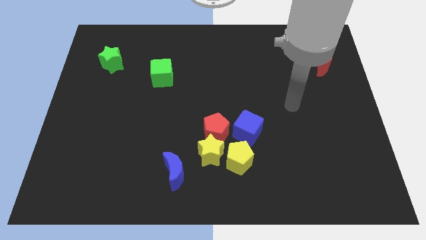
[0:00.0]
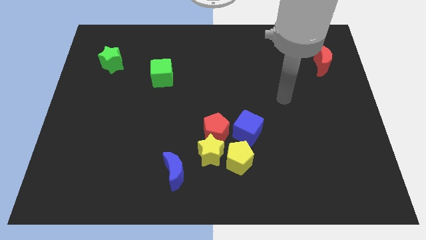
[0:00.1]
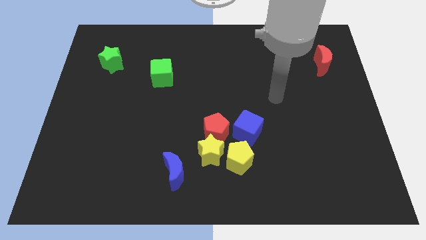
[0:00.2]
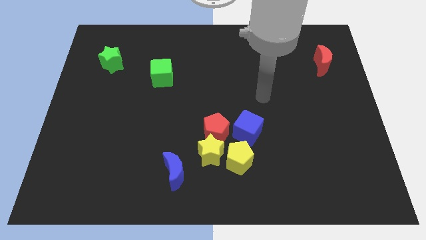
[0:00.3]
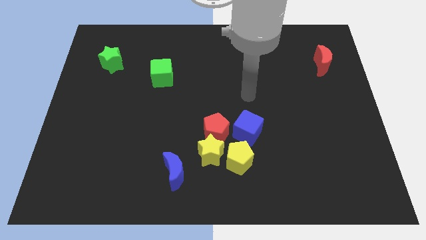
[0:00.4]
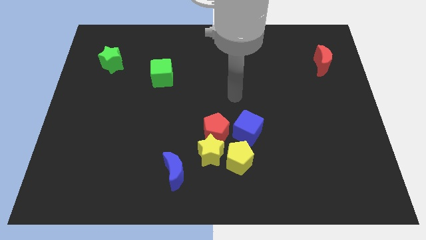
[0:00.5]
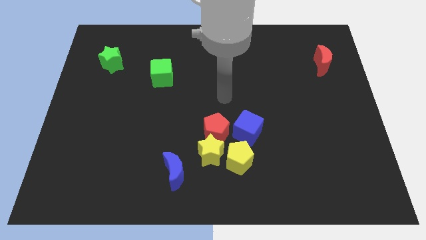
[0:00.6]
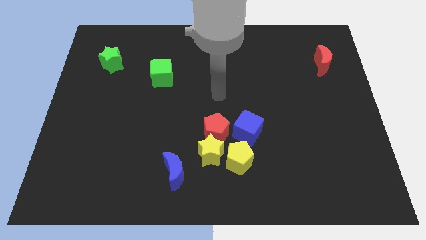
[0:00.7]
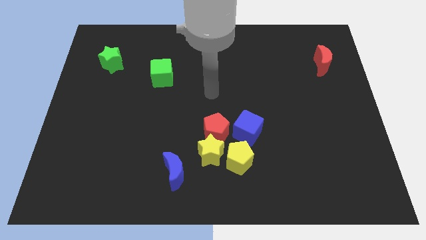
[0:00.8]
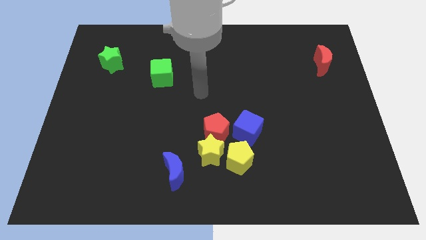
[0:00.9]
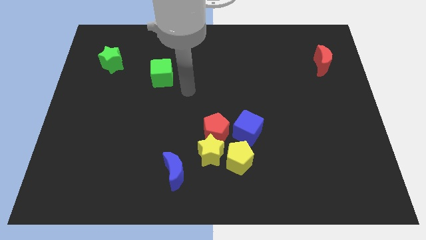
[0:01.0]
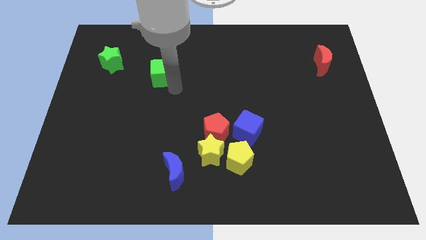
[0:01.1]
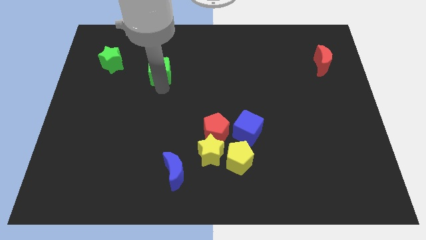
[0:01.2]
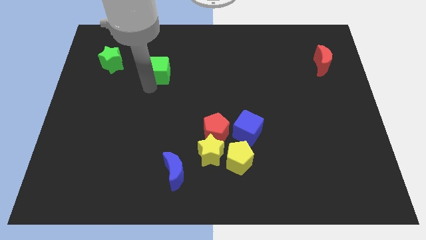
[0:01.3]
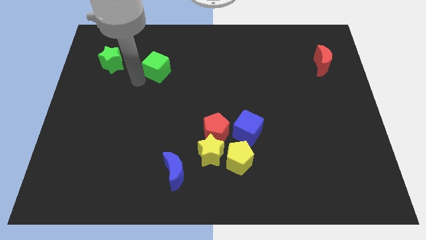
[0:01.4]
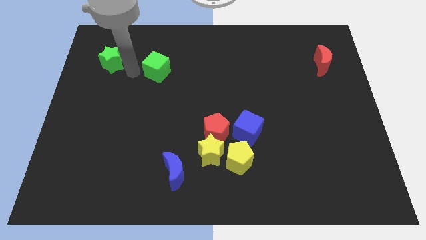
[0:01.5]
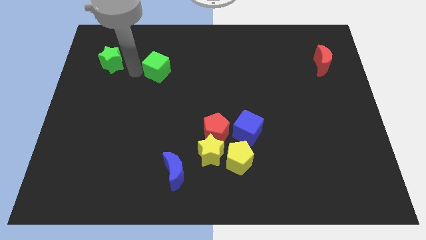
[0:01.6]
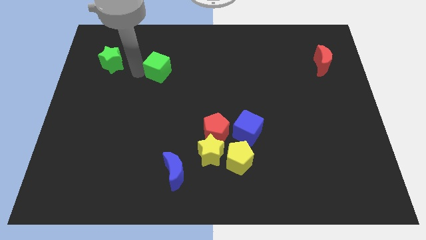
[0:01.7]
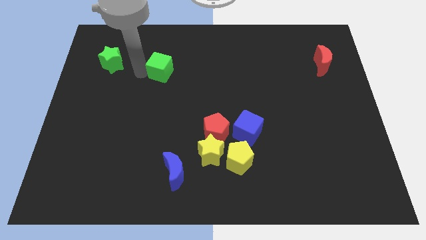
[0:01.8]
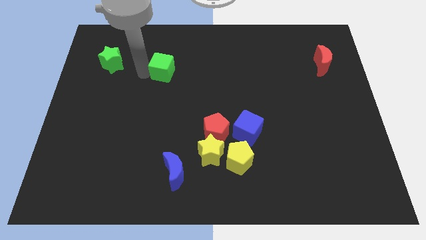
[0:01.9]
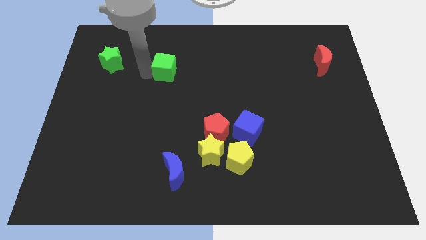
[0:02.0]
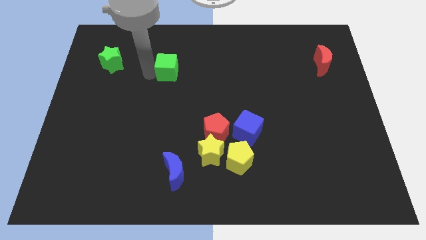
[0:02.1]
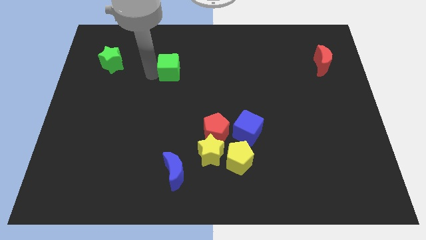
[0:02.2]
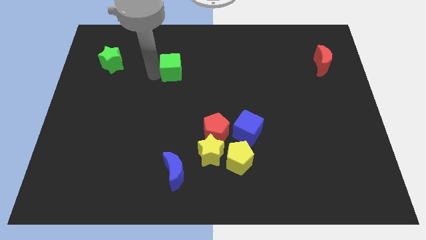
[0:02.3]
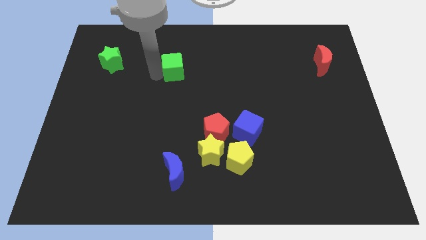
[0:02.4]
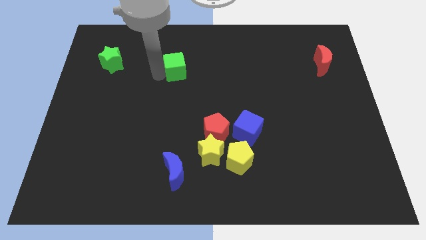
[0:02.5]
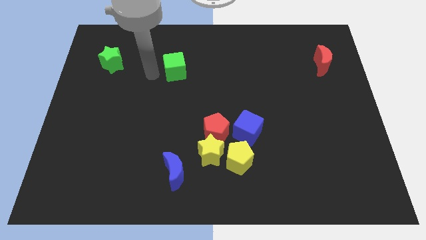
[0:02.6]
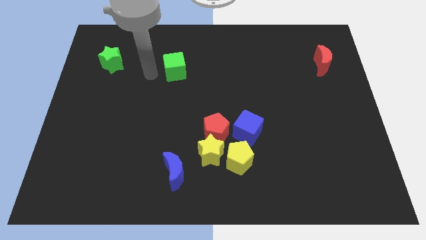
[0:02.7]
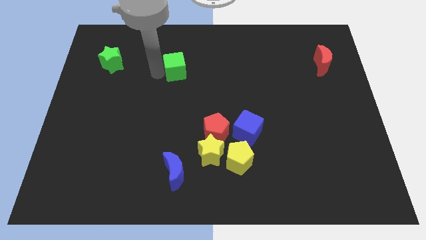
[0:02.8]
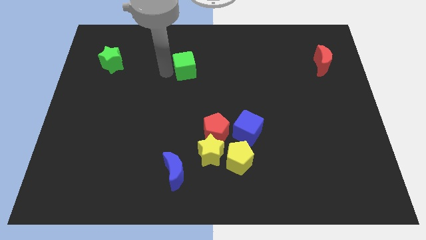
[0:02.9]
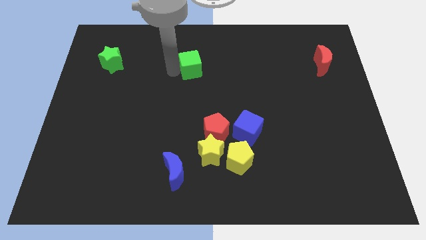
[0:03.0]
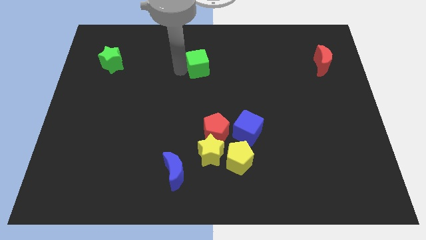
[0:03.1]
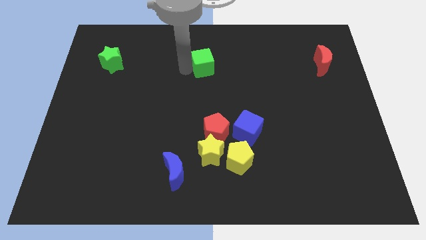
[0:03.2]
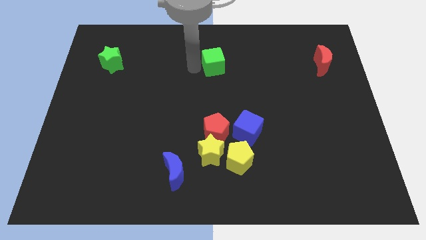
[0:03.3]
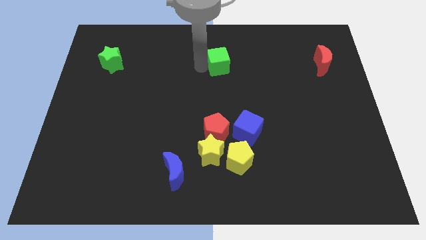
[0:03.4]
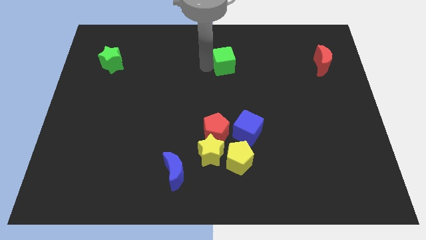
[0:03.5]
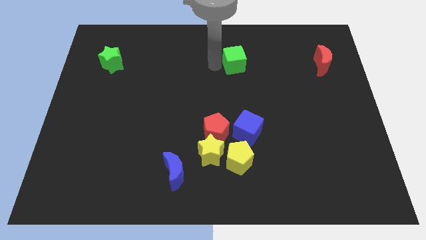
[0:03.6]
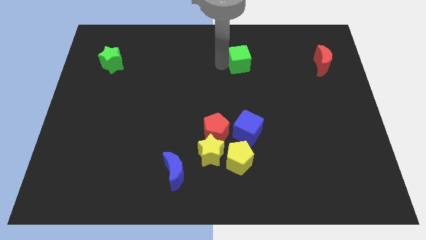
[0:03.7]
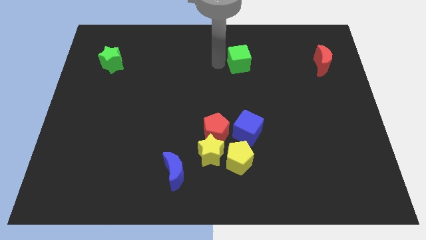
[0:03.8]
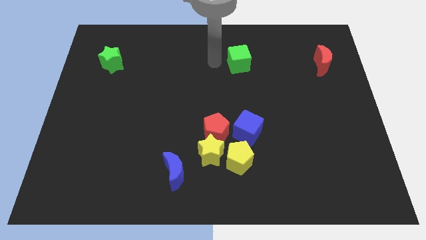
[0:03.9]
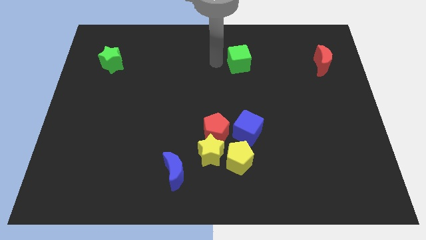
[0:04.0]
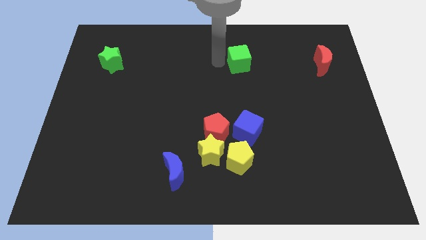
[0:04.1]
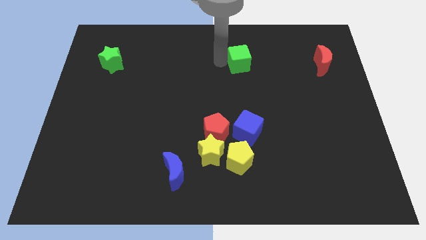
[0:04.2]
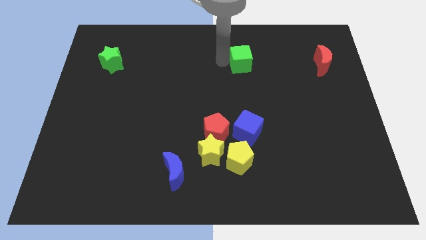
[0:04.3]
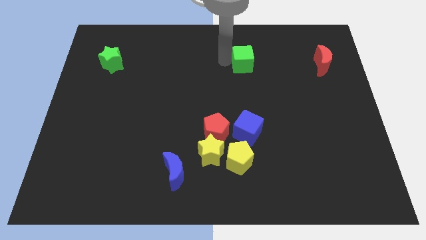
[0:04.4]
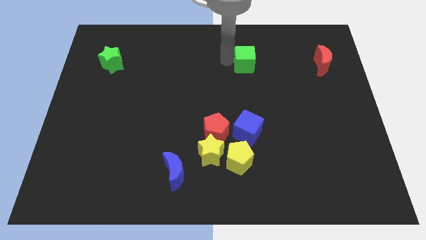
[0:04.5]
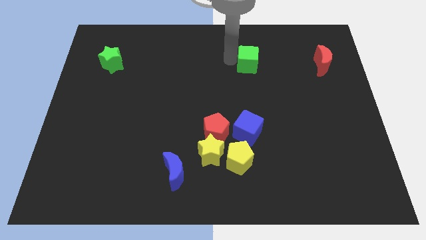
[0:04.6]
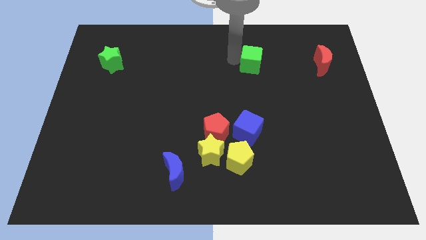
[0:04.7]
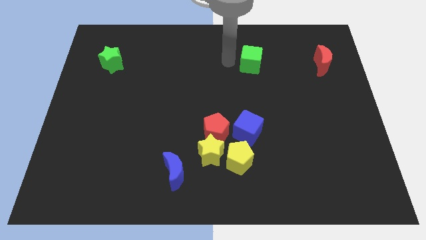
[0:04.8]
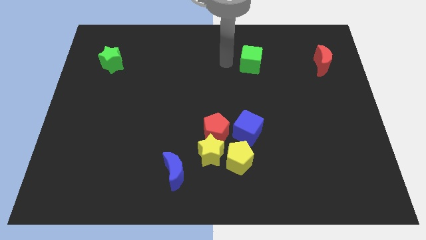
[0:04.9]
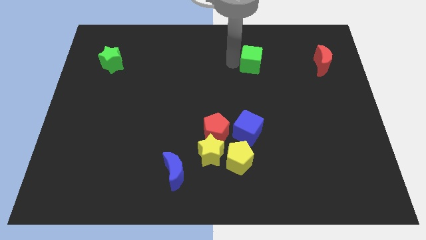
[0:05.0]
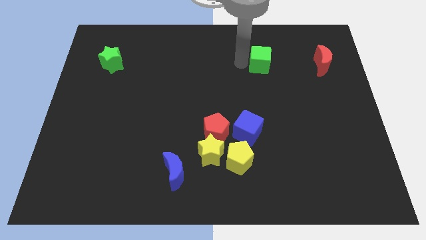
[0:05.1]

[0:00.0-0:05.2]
slide the green cube to the left of the red moon

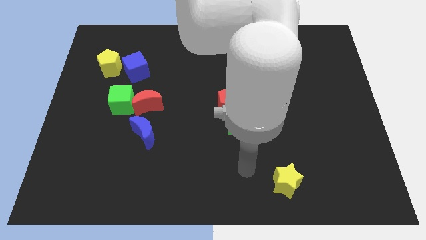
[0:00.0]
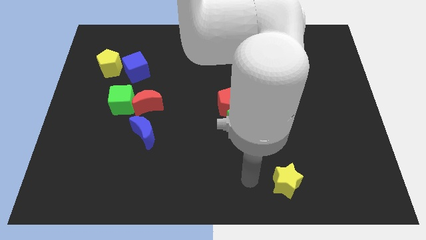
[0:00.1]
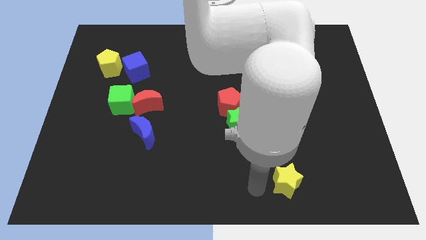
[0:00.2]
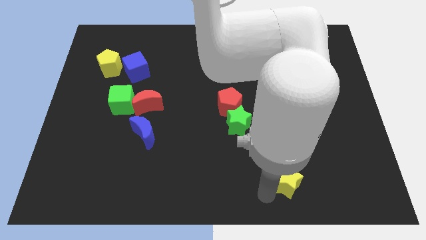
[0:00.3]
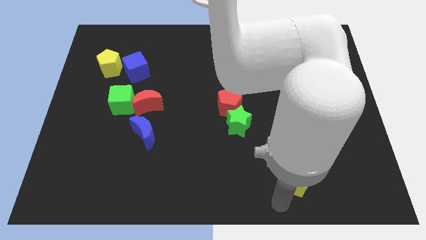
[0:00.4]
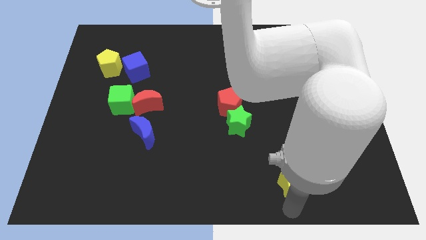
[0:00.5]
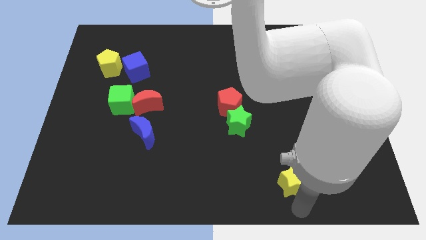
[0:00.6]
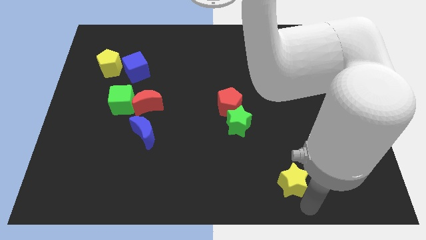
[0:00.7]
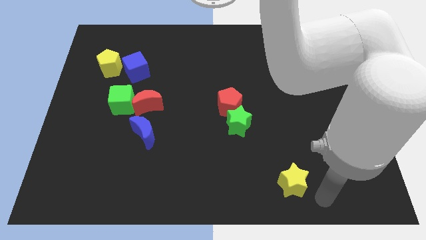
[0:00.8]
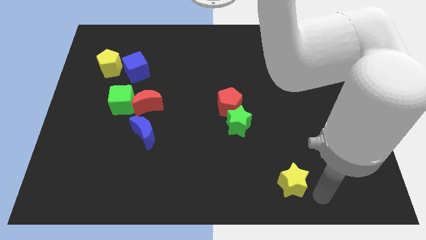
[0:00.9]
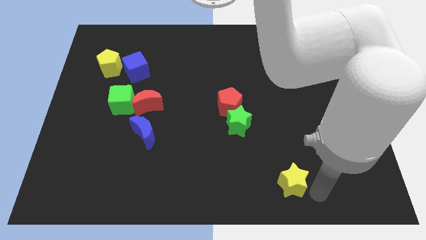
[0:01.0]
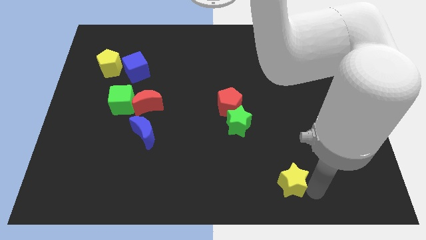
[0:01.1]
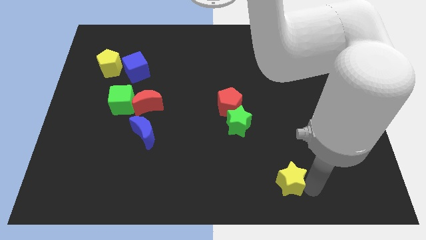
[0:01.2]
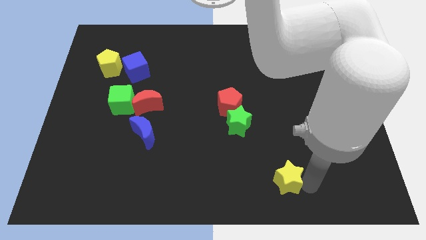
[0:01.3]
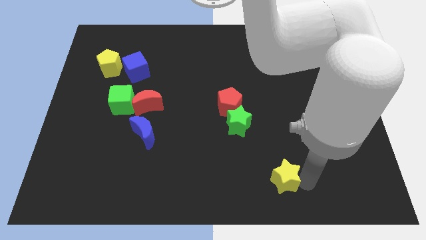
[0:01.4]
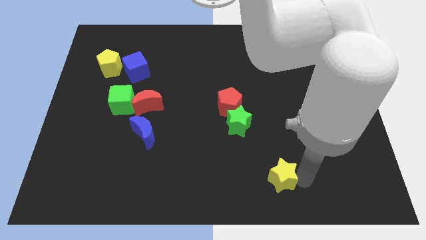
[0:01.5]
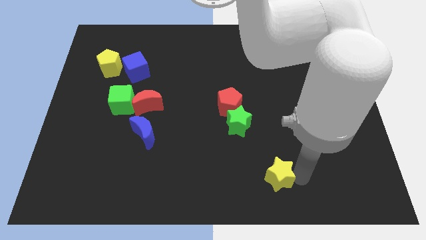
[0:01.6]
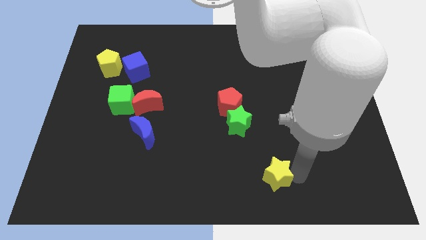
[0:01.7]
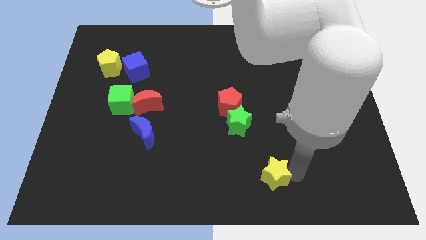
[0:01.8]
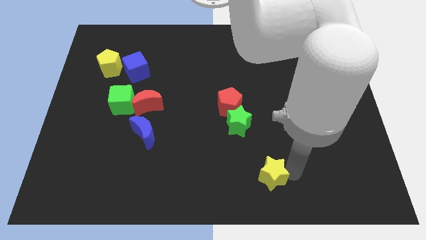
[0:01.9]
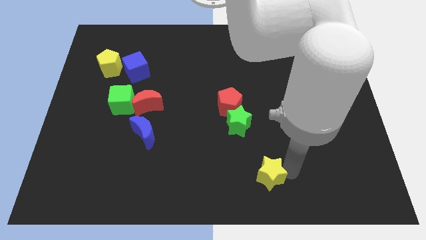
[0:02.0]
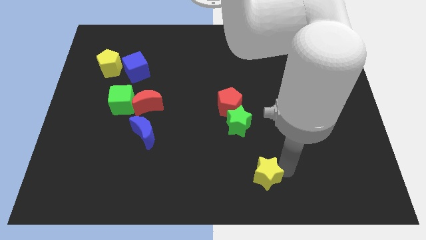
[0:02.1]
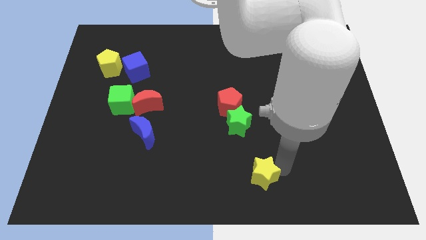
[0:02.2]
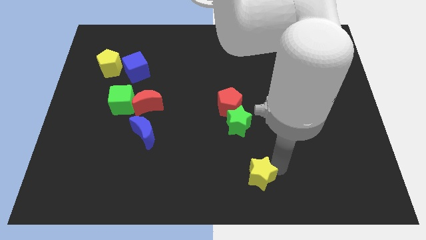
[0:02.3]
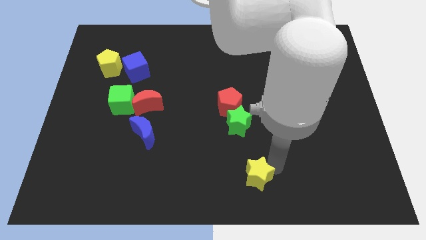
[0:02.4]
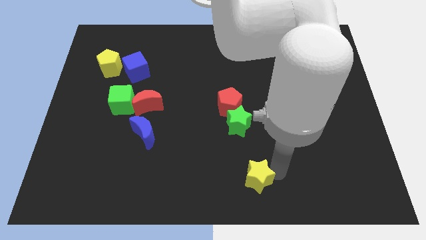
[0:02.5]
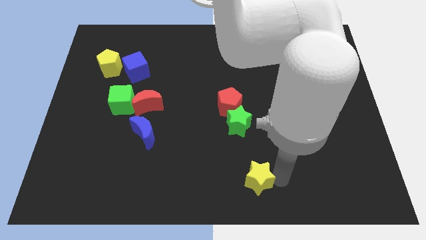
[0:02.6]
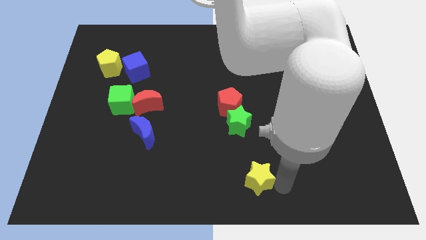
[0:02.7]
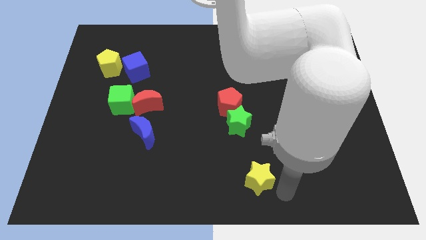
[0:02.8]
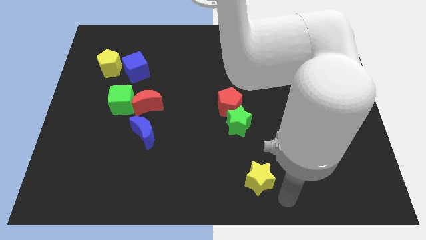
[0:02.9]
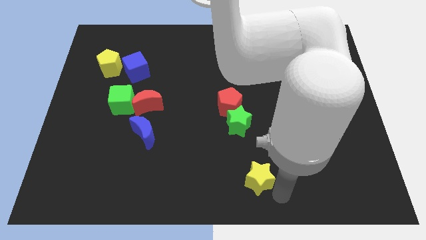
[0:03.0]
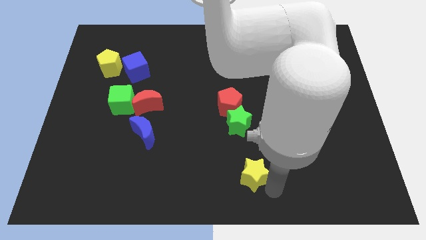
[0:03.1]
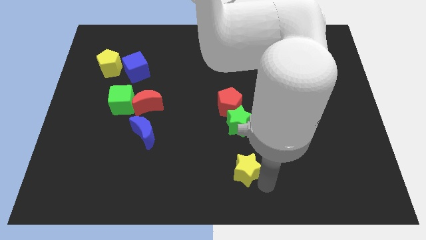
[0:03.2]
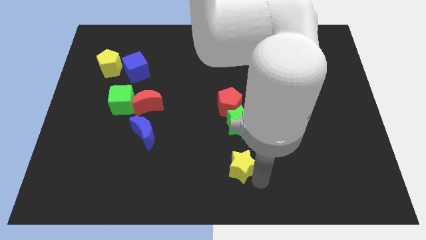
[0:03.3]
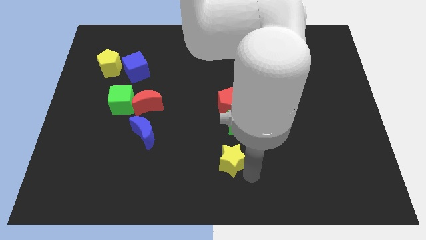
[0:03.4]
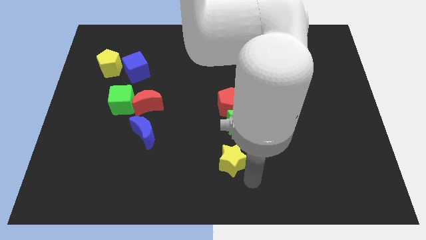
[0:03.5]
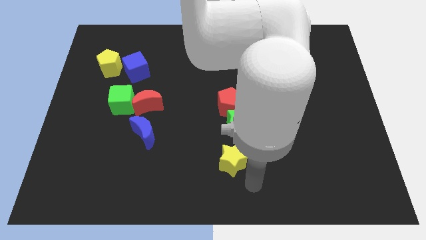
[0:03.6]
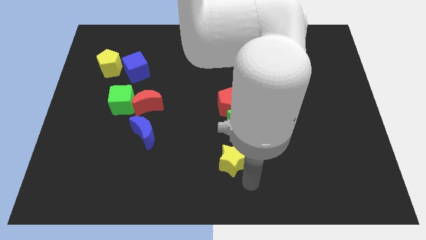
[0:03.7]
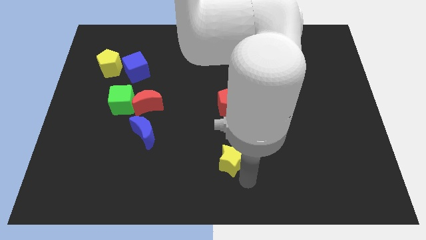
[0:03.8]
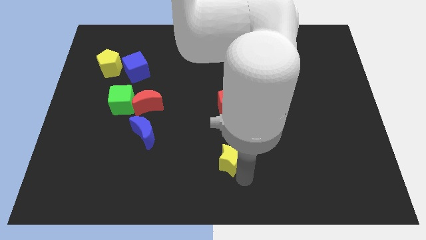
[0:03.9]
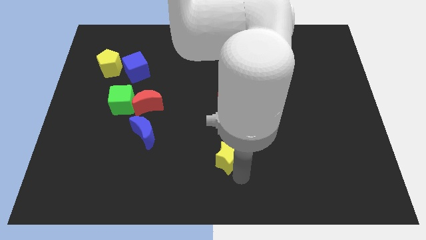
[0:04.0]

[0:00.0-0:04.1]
move the yellow star diagonally down and to the left of the green star
